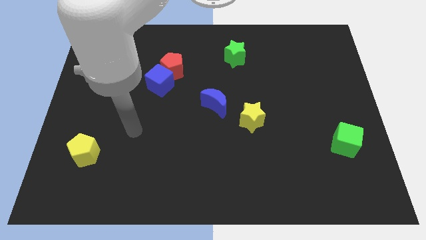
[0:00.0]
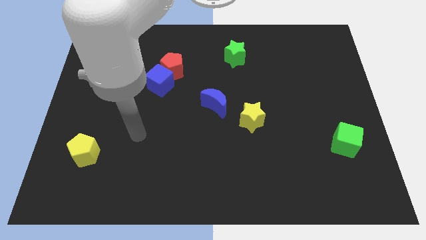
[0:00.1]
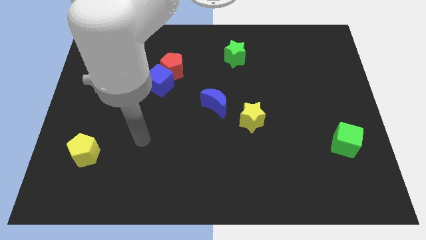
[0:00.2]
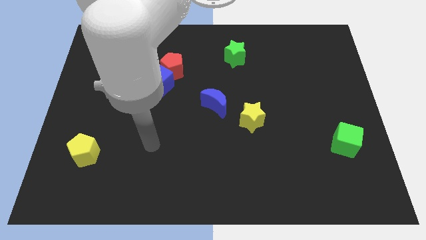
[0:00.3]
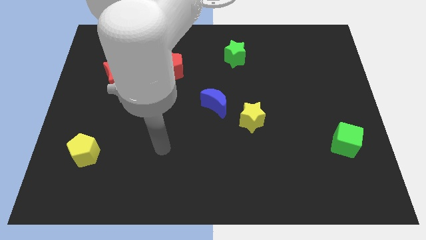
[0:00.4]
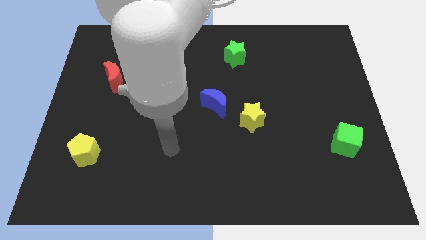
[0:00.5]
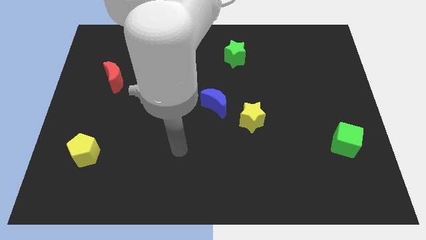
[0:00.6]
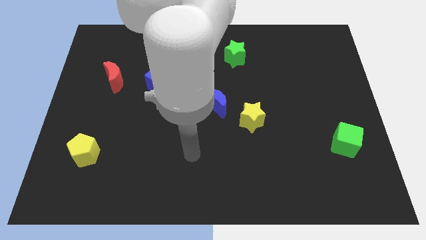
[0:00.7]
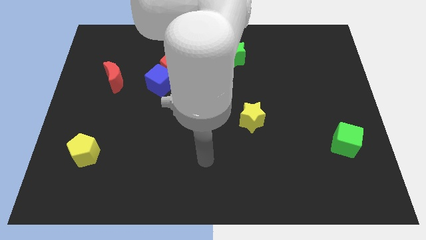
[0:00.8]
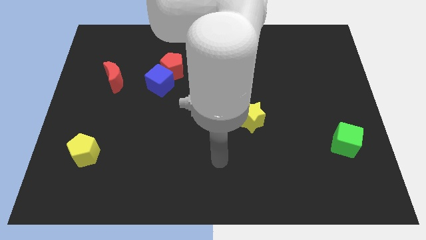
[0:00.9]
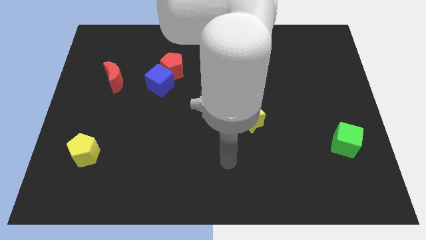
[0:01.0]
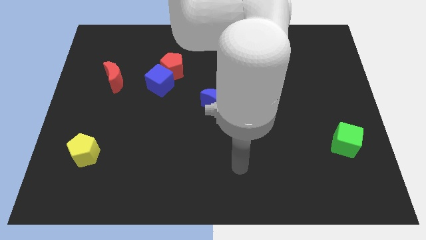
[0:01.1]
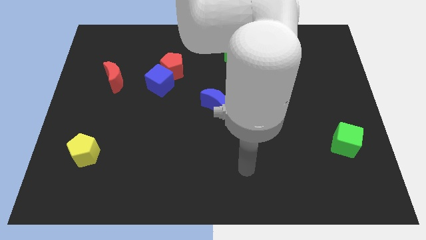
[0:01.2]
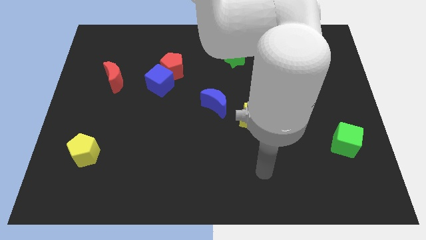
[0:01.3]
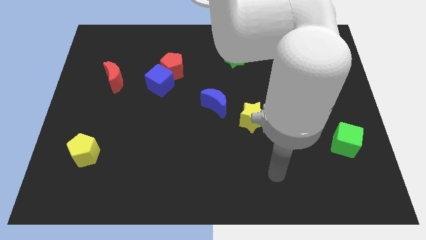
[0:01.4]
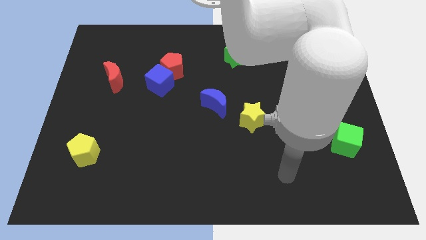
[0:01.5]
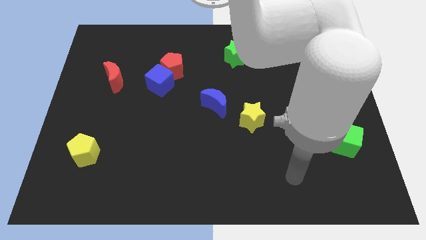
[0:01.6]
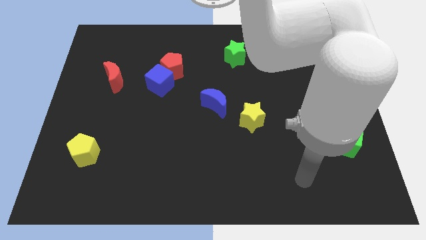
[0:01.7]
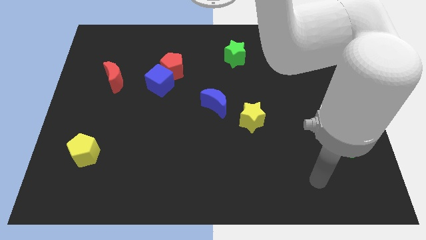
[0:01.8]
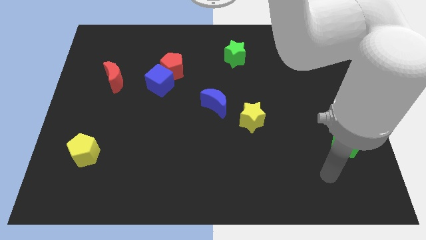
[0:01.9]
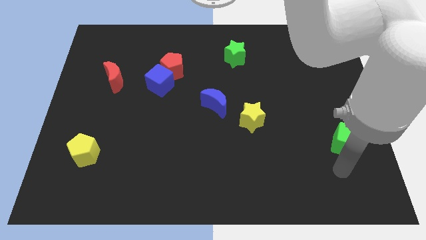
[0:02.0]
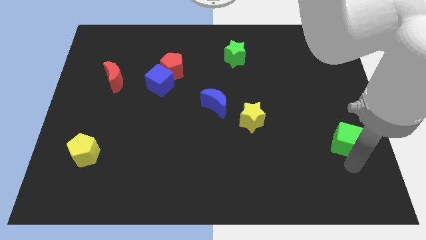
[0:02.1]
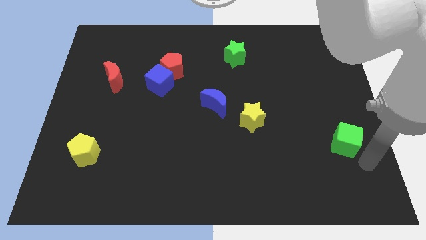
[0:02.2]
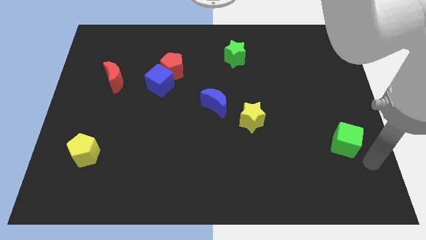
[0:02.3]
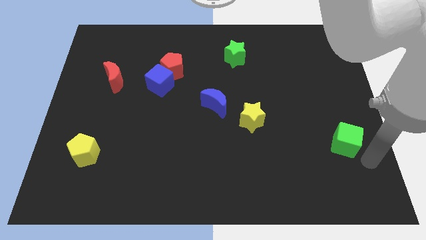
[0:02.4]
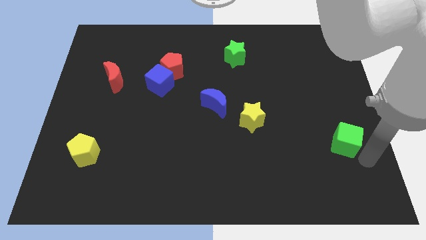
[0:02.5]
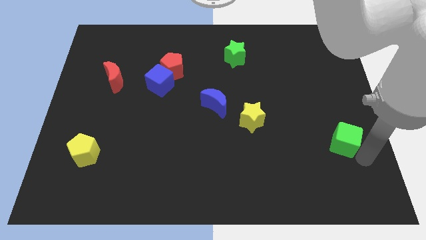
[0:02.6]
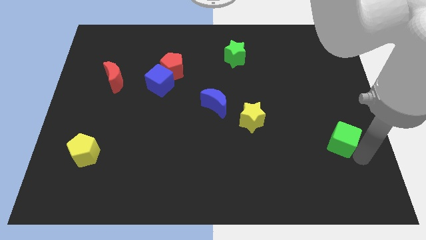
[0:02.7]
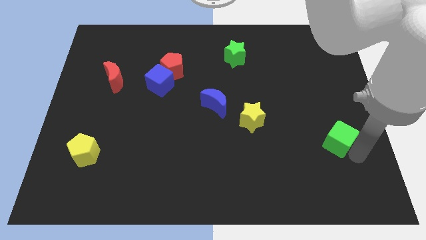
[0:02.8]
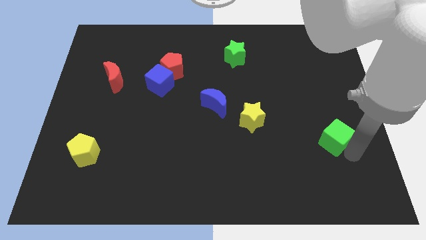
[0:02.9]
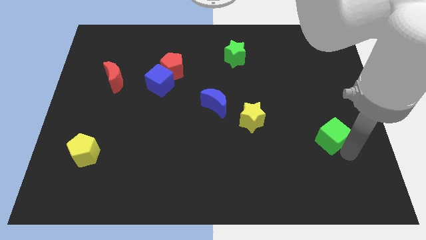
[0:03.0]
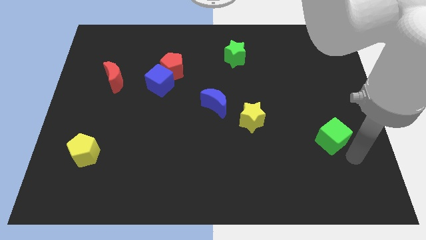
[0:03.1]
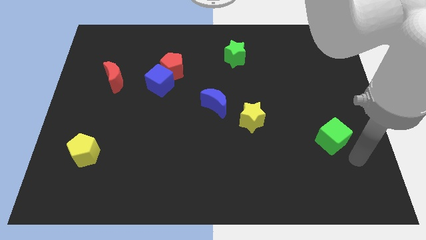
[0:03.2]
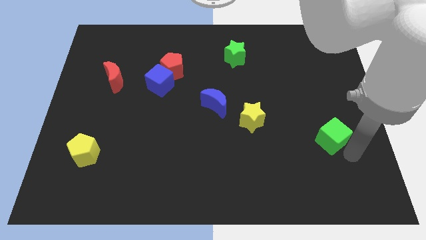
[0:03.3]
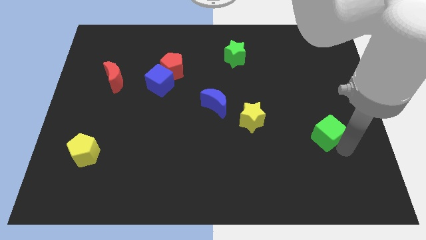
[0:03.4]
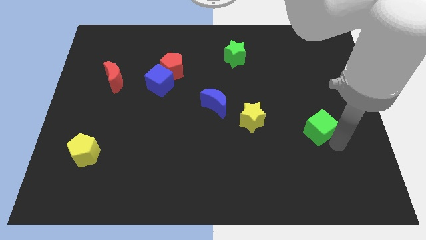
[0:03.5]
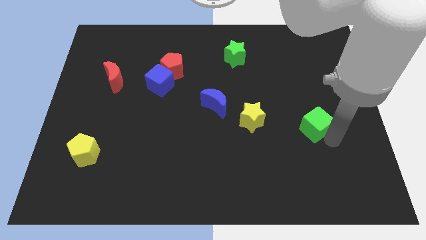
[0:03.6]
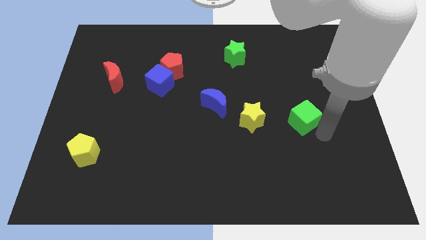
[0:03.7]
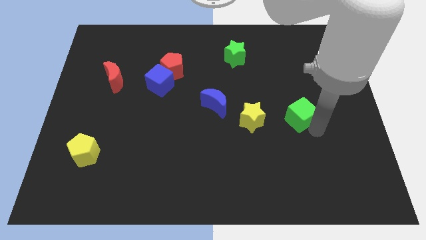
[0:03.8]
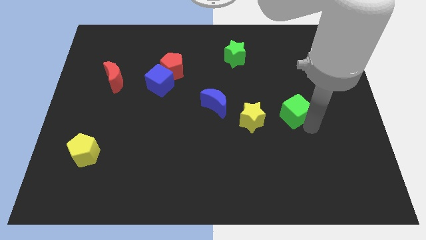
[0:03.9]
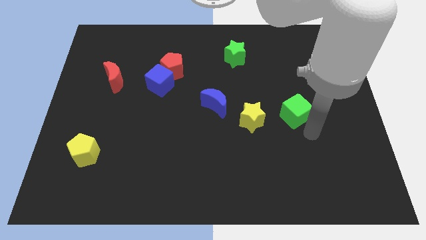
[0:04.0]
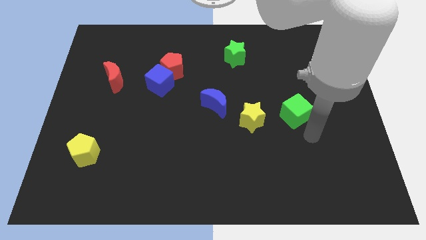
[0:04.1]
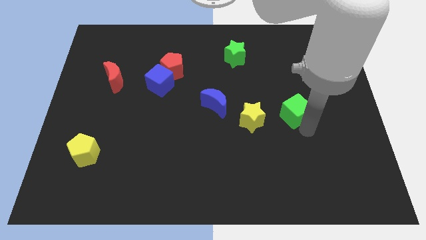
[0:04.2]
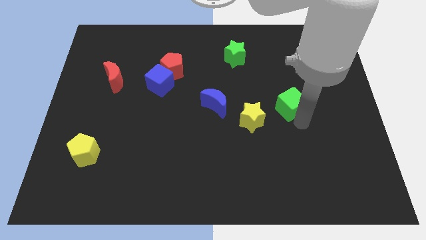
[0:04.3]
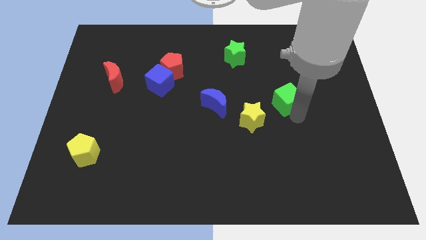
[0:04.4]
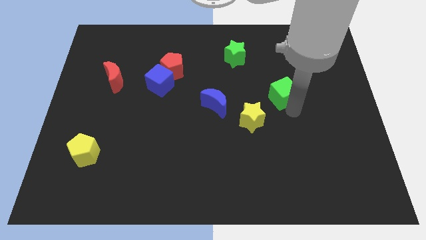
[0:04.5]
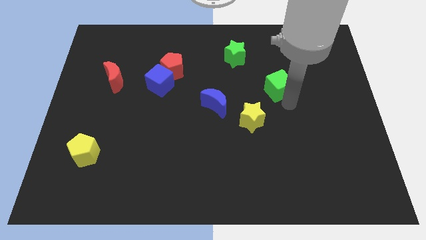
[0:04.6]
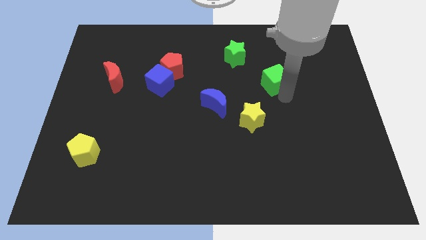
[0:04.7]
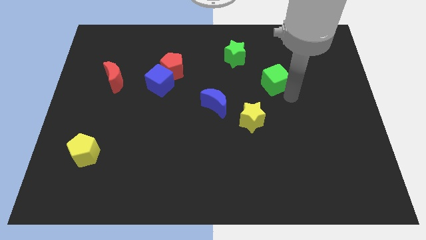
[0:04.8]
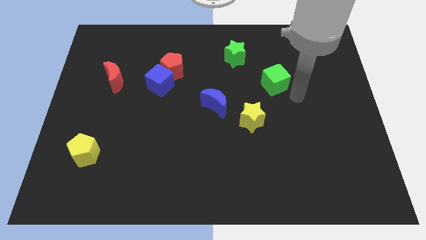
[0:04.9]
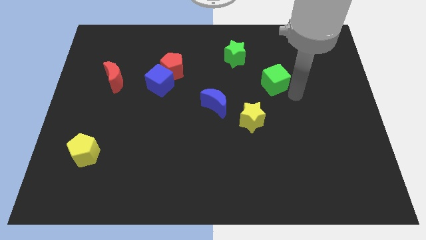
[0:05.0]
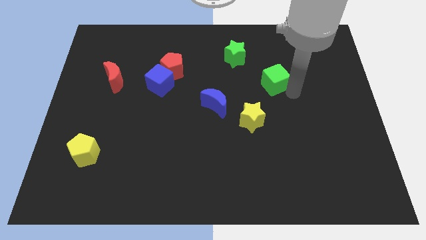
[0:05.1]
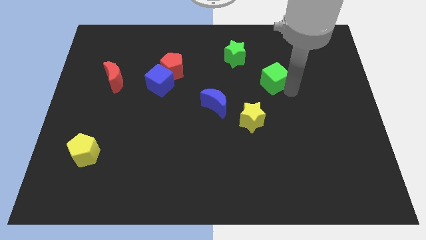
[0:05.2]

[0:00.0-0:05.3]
put the green cube diagonally down and to the right of the green star

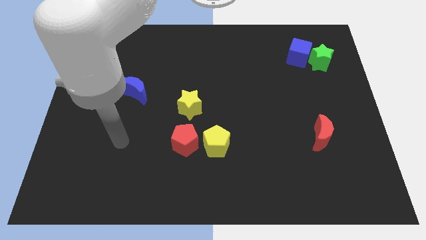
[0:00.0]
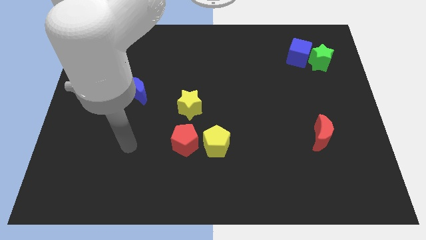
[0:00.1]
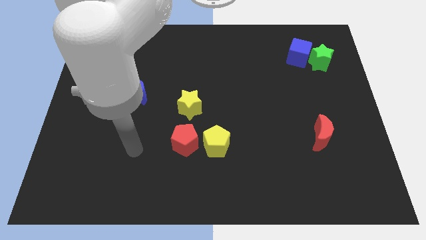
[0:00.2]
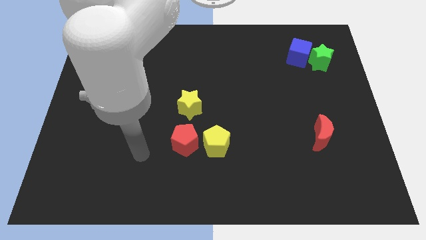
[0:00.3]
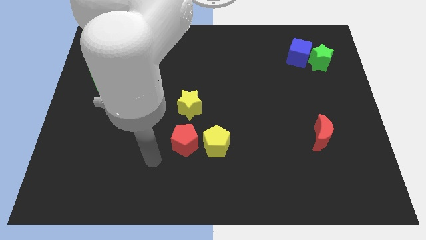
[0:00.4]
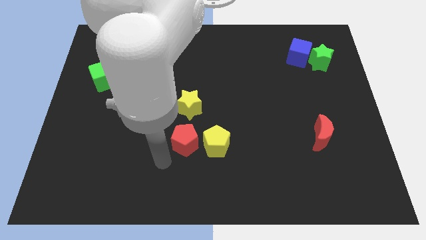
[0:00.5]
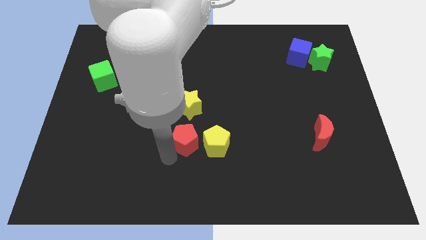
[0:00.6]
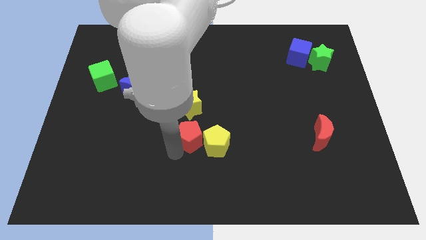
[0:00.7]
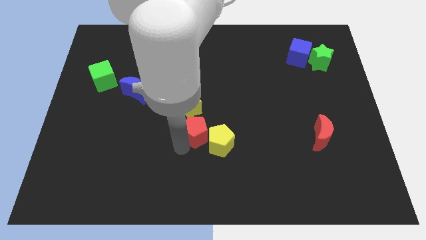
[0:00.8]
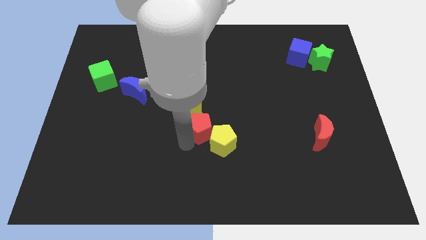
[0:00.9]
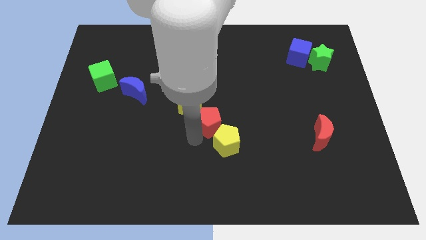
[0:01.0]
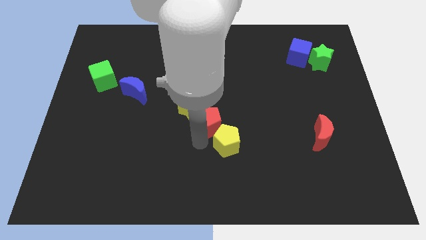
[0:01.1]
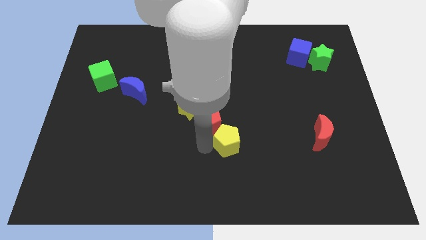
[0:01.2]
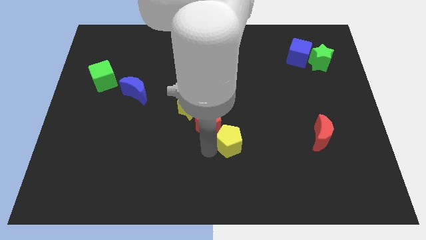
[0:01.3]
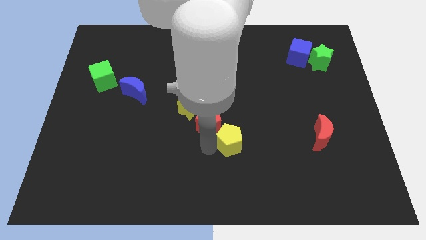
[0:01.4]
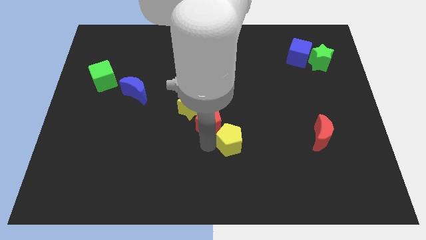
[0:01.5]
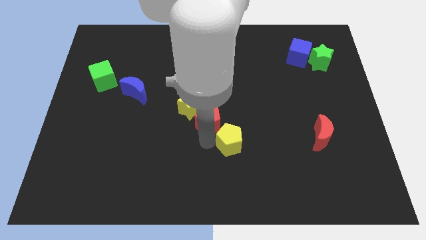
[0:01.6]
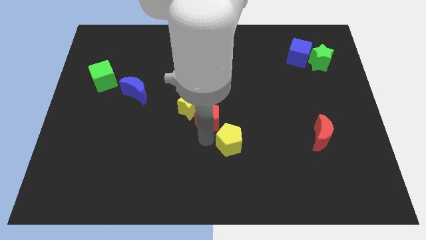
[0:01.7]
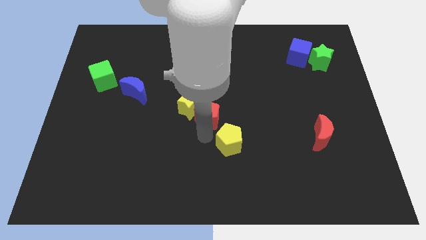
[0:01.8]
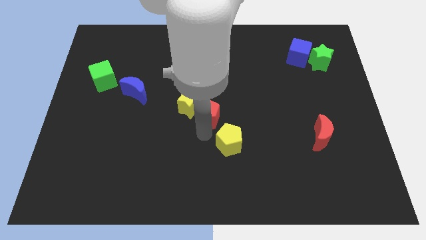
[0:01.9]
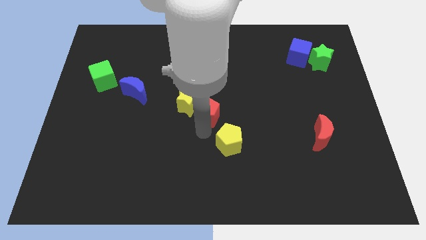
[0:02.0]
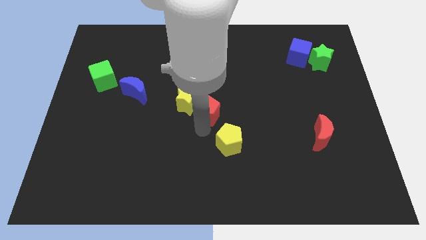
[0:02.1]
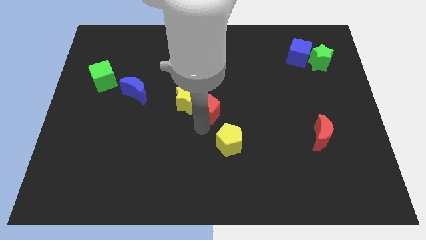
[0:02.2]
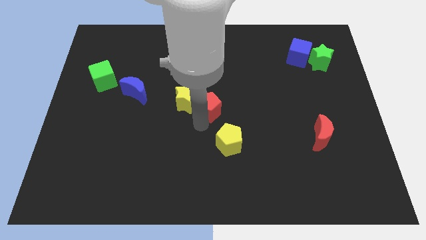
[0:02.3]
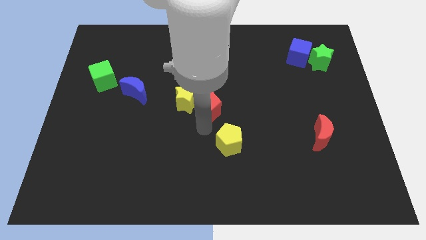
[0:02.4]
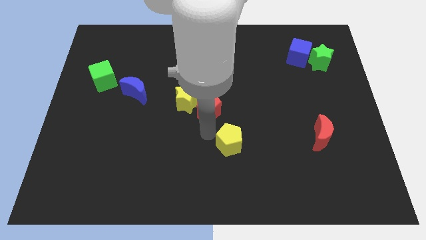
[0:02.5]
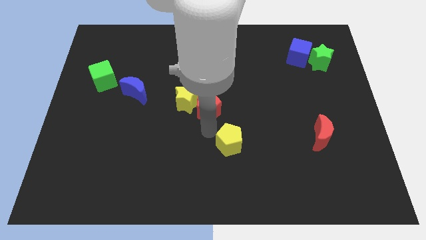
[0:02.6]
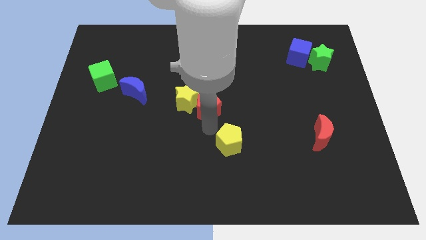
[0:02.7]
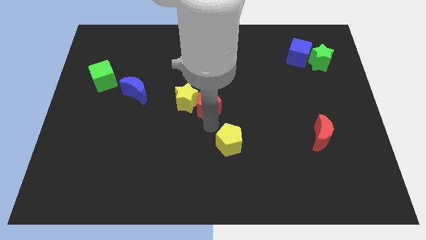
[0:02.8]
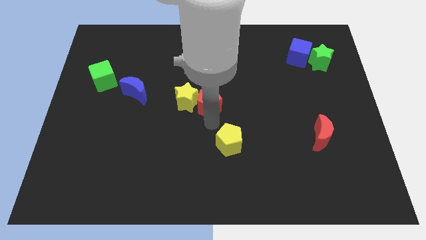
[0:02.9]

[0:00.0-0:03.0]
push the red pentagon diagonally up and to the right of the yellow star
